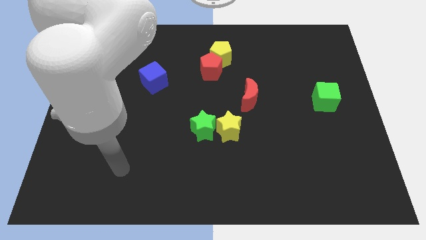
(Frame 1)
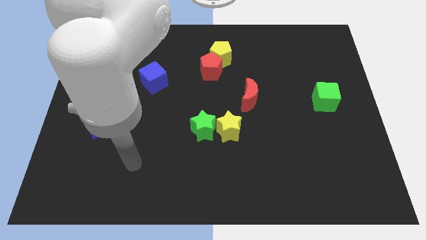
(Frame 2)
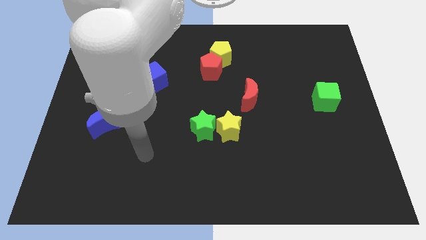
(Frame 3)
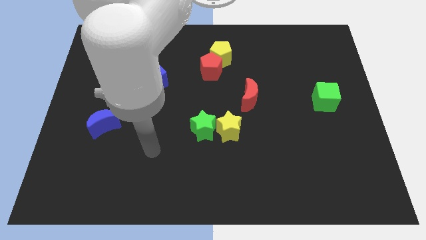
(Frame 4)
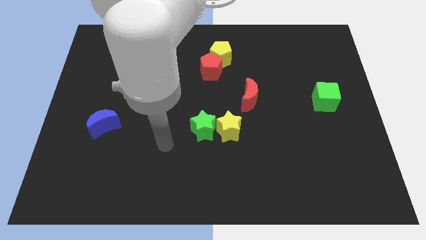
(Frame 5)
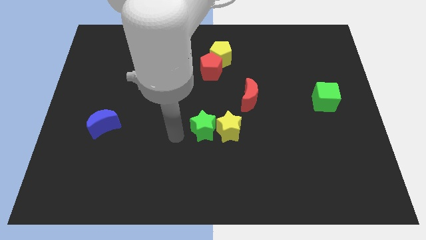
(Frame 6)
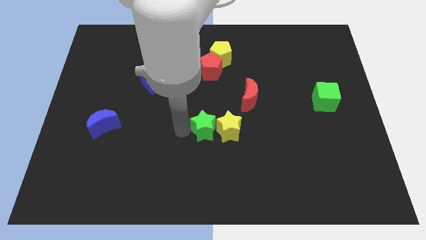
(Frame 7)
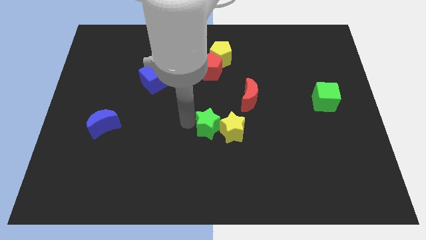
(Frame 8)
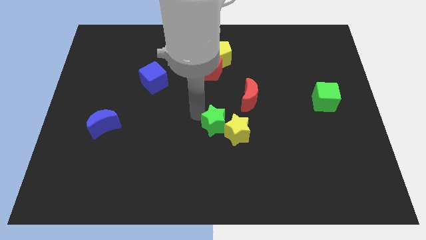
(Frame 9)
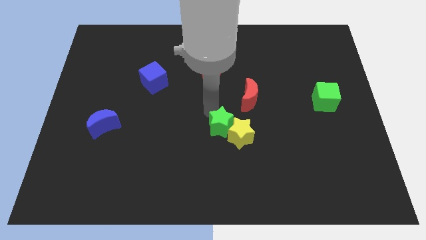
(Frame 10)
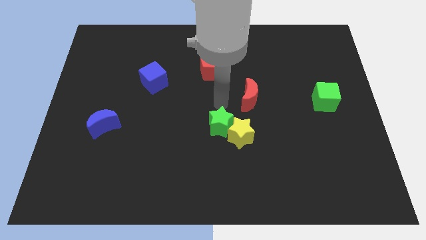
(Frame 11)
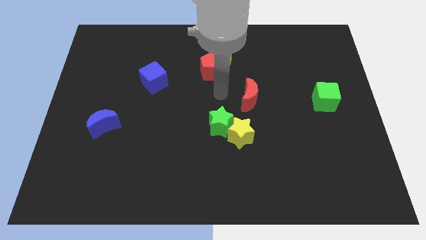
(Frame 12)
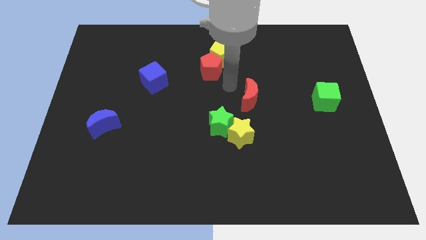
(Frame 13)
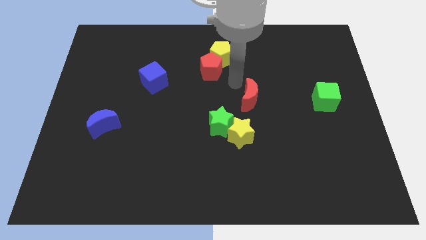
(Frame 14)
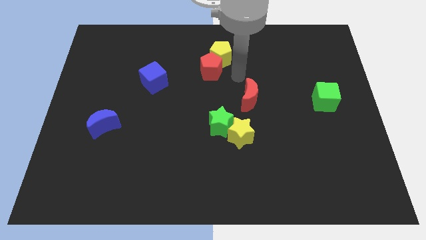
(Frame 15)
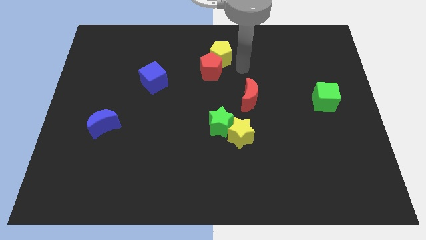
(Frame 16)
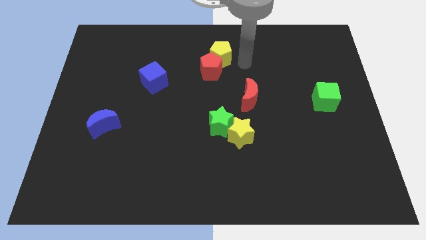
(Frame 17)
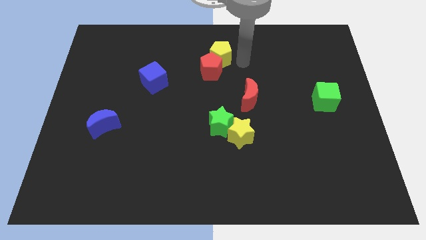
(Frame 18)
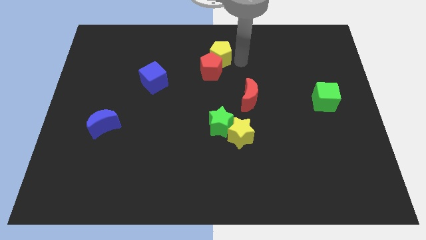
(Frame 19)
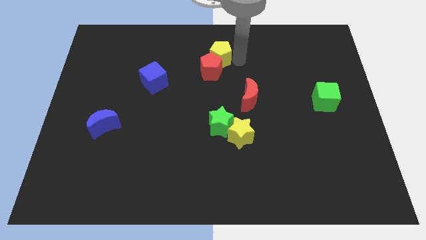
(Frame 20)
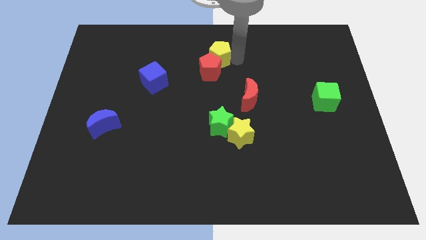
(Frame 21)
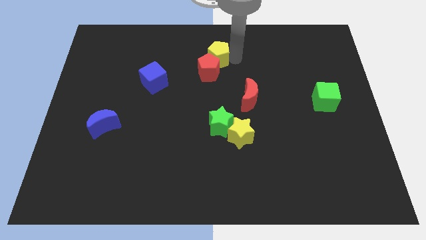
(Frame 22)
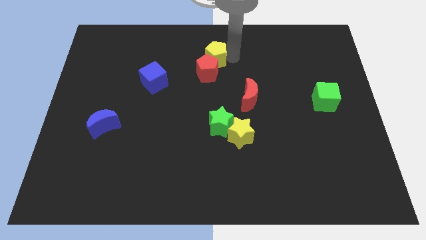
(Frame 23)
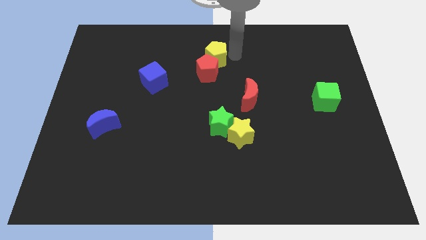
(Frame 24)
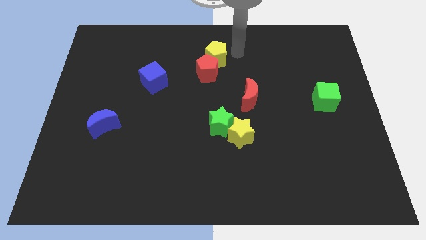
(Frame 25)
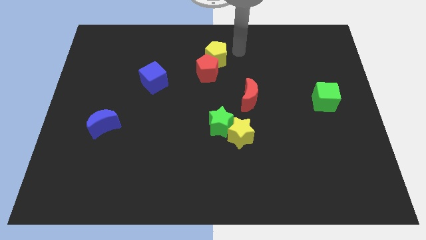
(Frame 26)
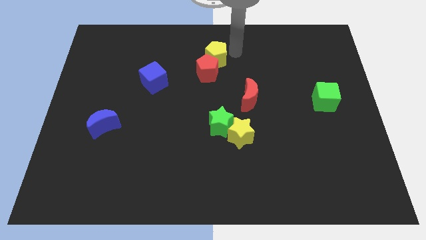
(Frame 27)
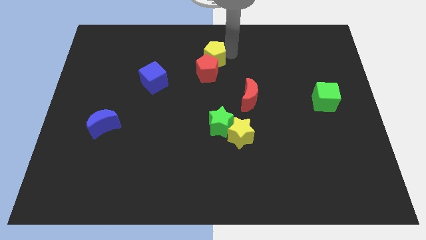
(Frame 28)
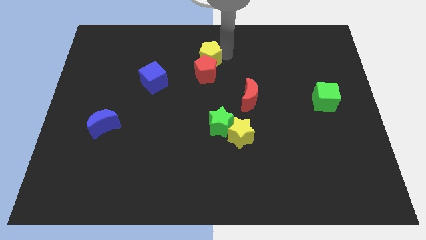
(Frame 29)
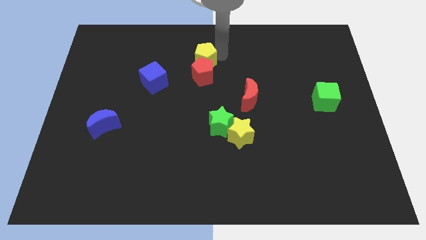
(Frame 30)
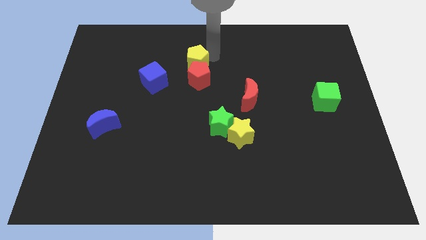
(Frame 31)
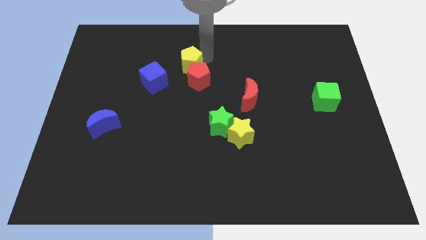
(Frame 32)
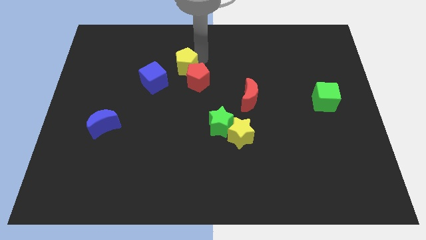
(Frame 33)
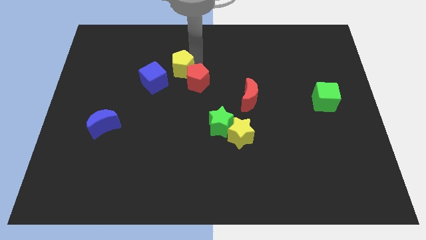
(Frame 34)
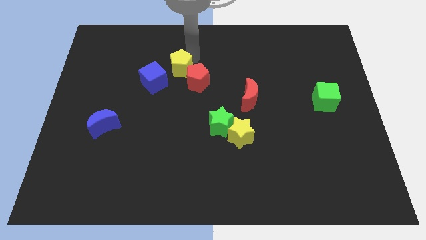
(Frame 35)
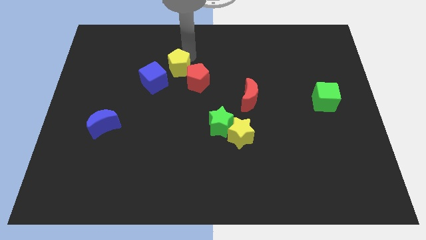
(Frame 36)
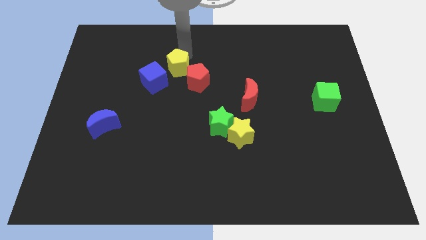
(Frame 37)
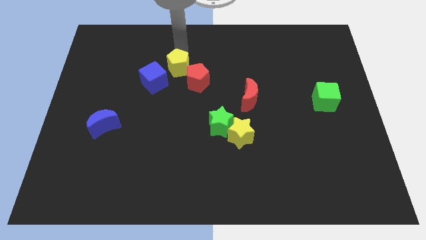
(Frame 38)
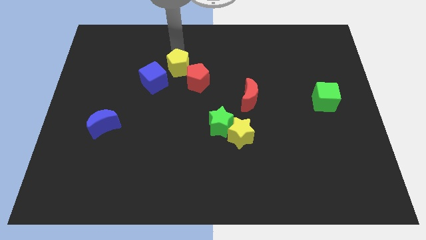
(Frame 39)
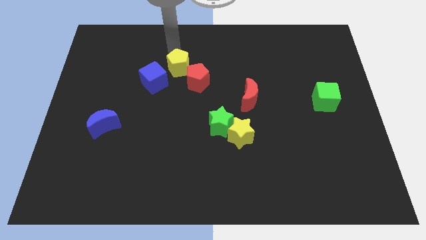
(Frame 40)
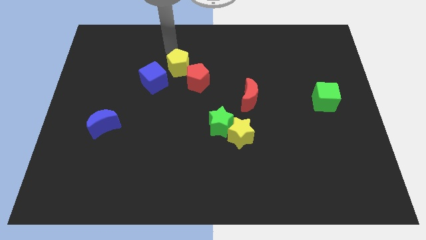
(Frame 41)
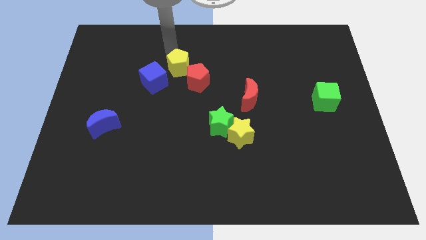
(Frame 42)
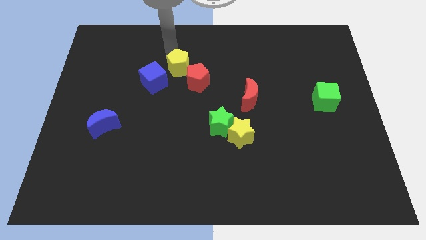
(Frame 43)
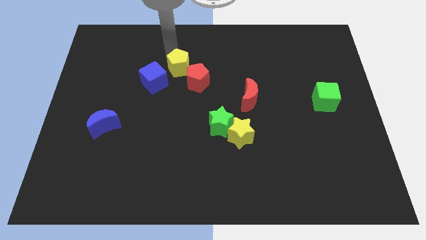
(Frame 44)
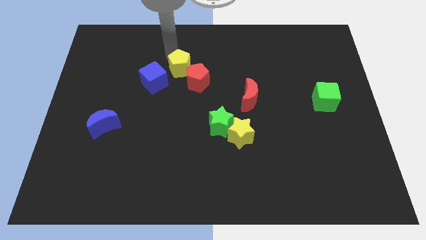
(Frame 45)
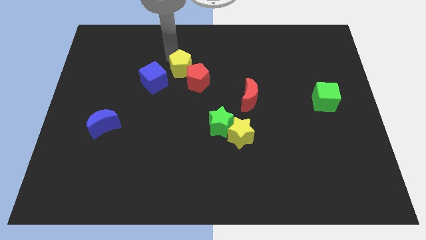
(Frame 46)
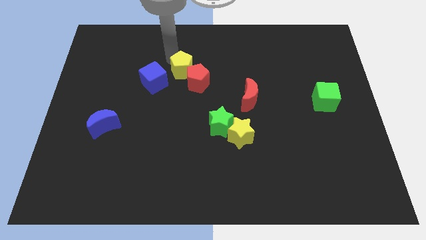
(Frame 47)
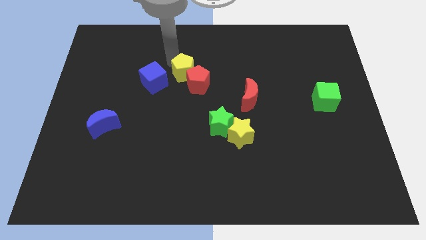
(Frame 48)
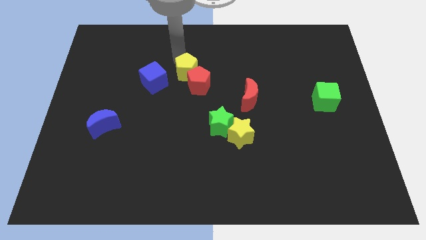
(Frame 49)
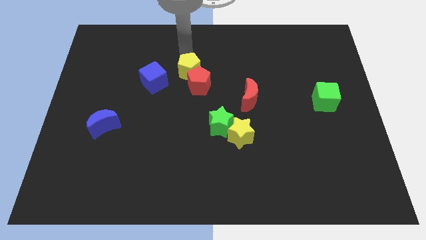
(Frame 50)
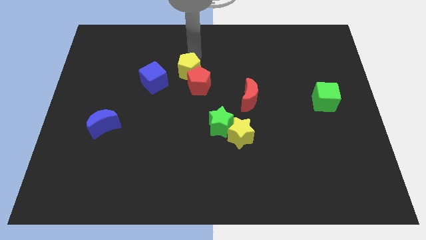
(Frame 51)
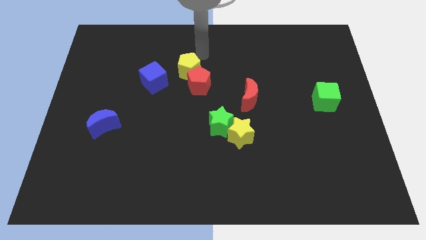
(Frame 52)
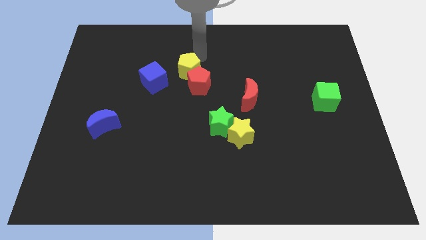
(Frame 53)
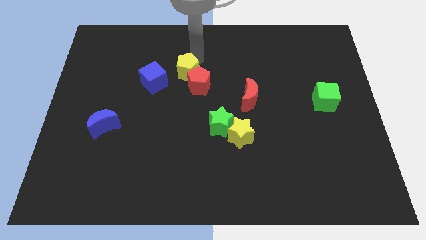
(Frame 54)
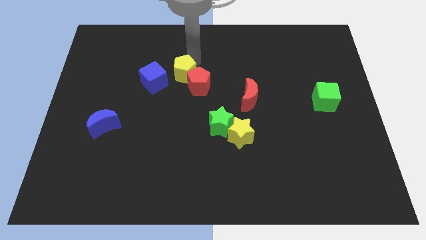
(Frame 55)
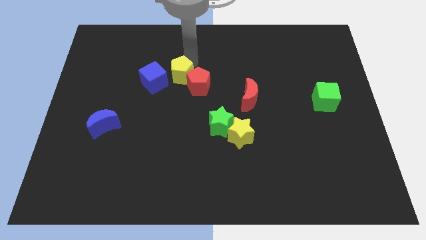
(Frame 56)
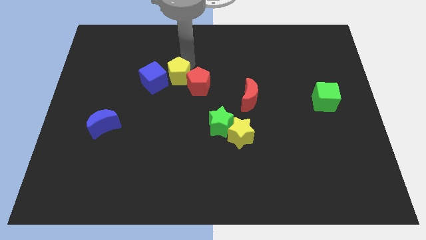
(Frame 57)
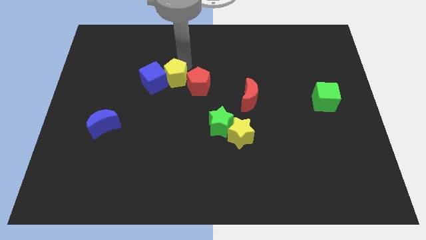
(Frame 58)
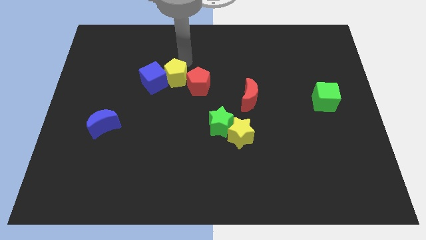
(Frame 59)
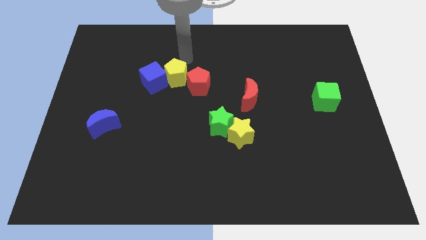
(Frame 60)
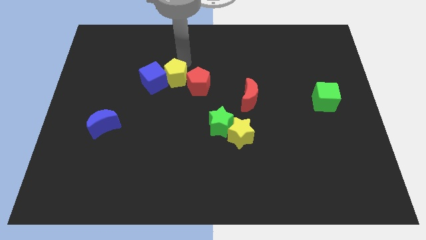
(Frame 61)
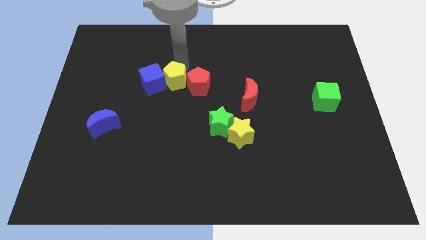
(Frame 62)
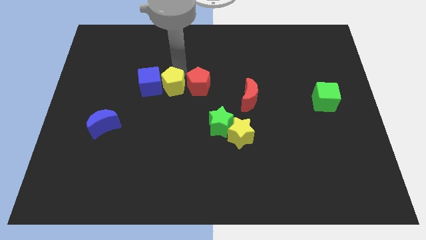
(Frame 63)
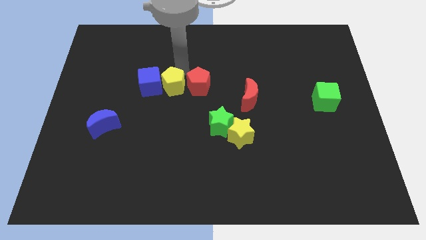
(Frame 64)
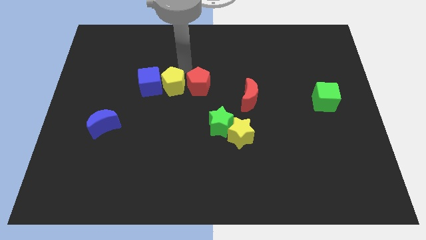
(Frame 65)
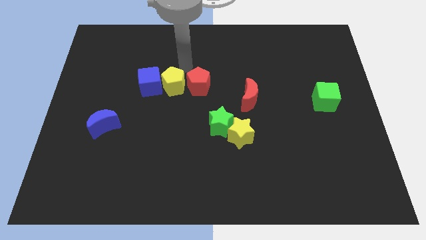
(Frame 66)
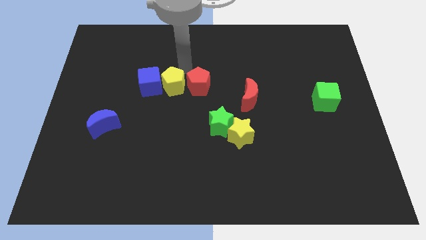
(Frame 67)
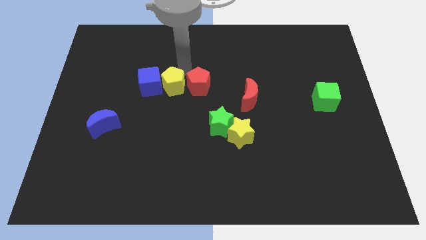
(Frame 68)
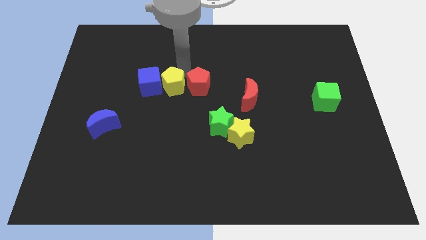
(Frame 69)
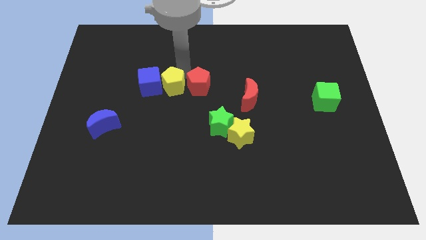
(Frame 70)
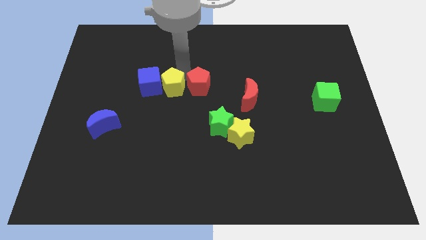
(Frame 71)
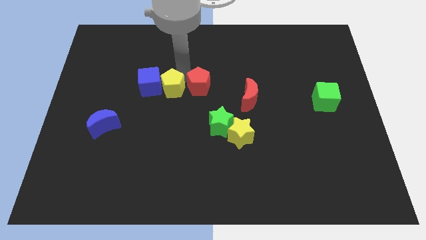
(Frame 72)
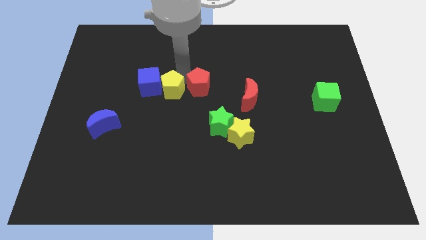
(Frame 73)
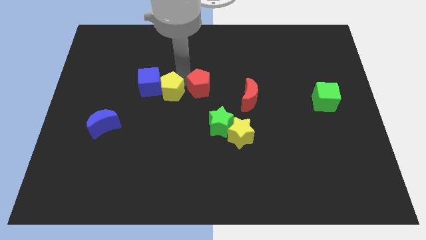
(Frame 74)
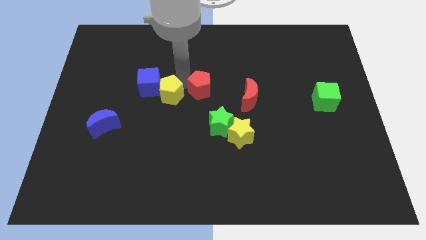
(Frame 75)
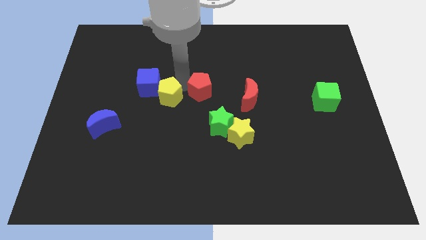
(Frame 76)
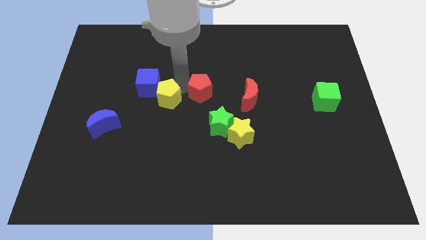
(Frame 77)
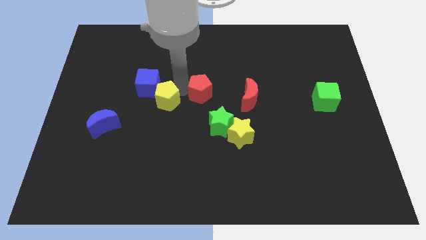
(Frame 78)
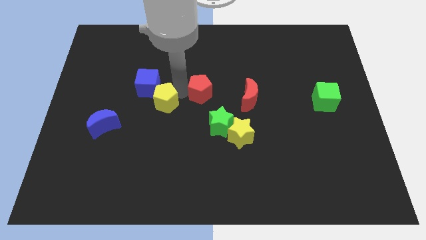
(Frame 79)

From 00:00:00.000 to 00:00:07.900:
slide the yellow pentagon diagonally downwards and to the left
